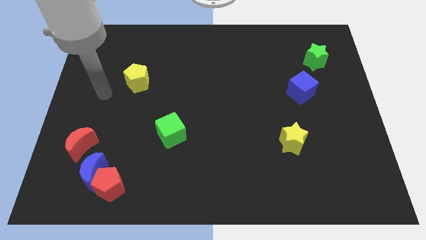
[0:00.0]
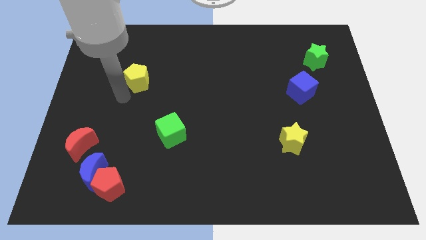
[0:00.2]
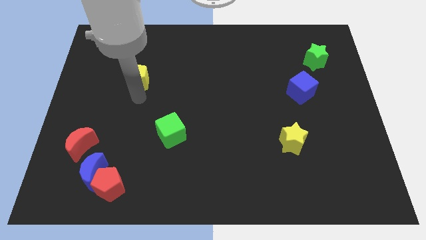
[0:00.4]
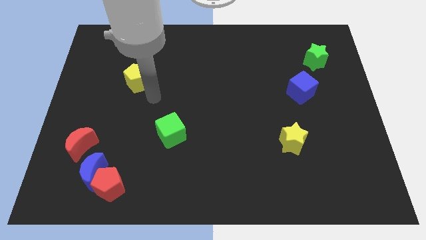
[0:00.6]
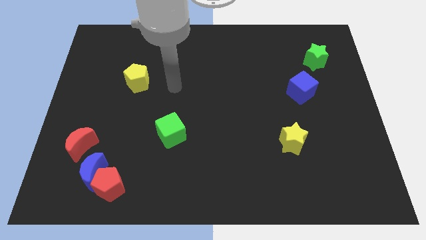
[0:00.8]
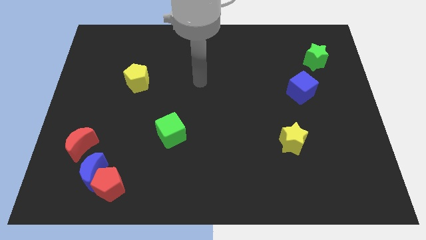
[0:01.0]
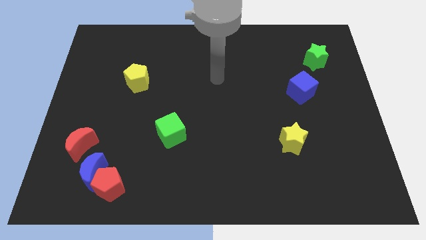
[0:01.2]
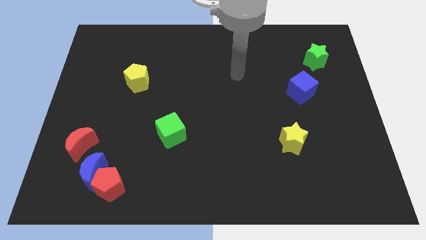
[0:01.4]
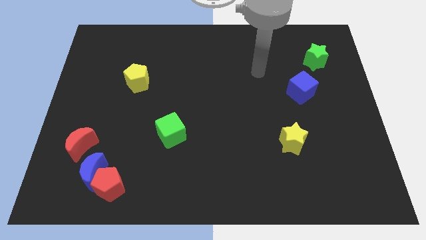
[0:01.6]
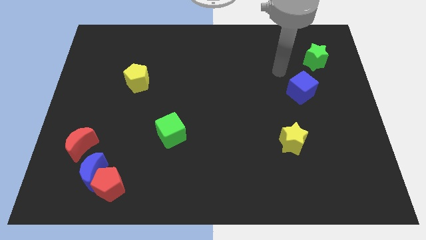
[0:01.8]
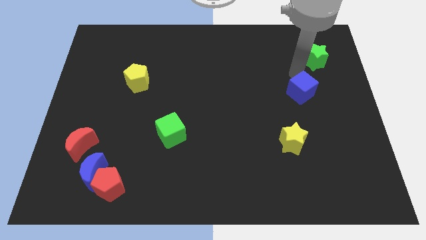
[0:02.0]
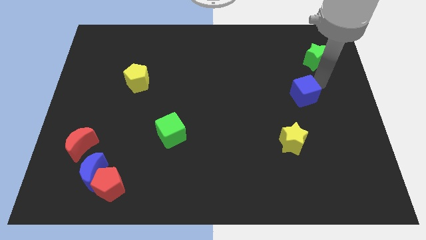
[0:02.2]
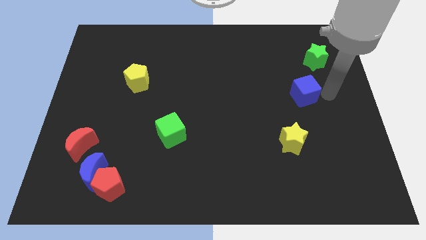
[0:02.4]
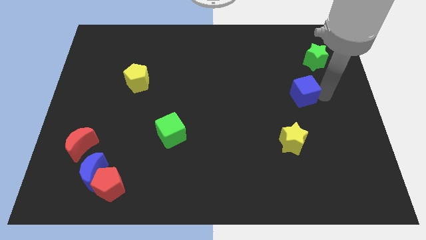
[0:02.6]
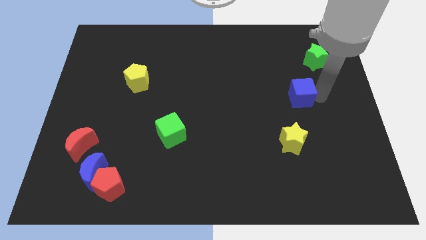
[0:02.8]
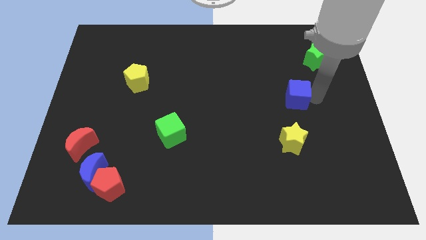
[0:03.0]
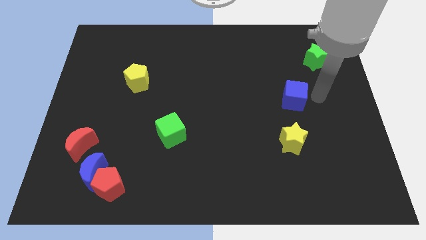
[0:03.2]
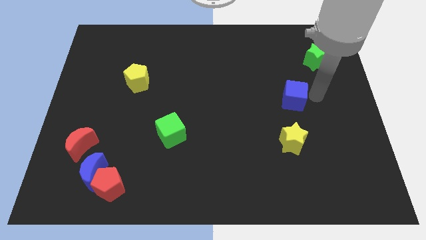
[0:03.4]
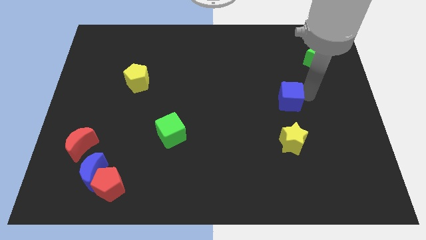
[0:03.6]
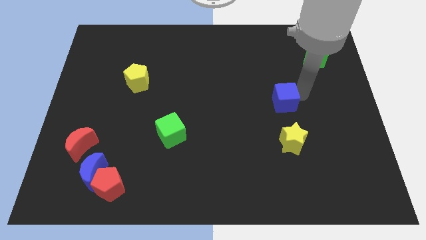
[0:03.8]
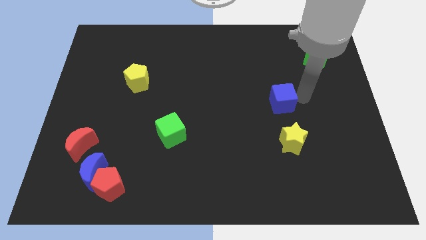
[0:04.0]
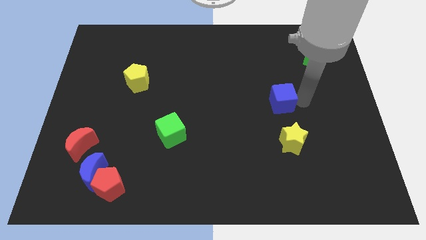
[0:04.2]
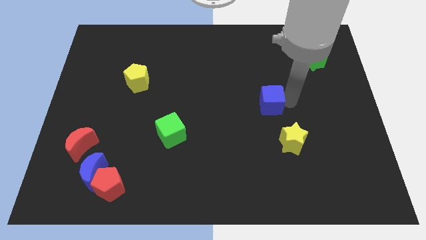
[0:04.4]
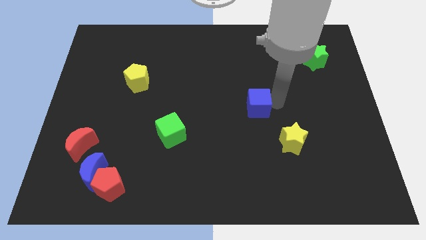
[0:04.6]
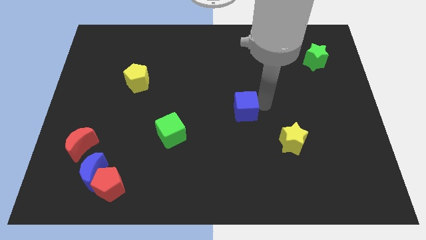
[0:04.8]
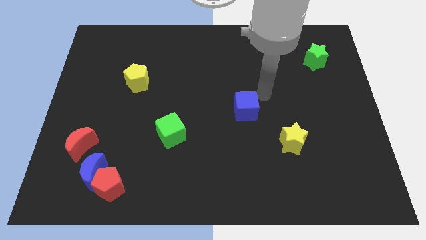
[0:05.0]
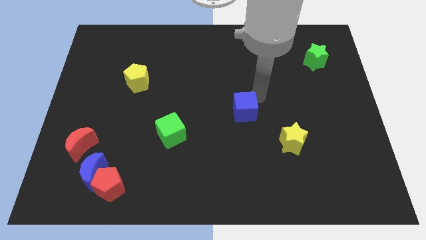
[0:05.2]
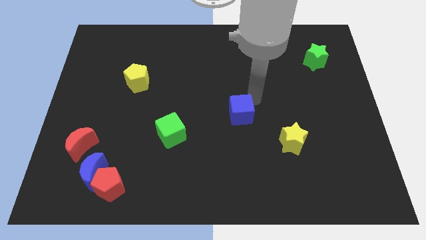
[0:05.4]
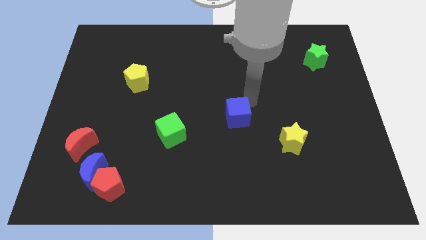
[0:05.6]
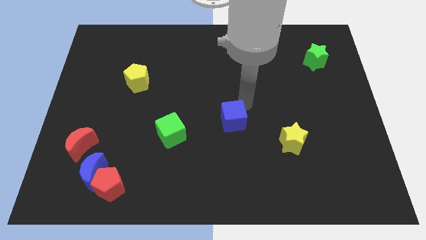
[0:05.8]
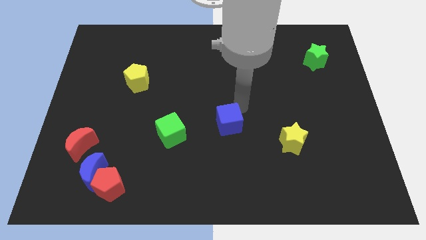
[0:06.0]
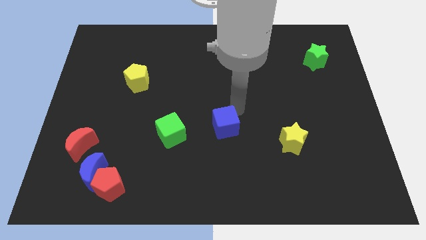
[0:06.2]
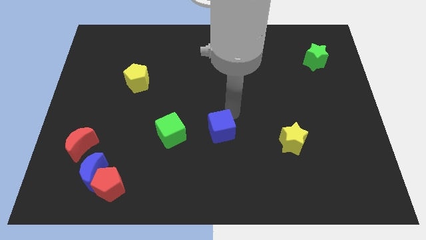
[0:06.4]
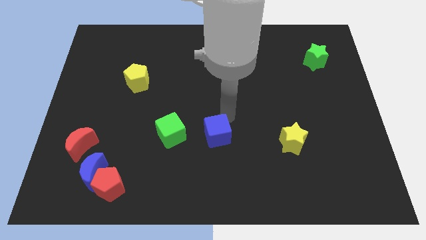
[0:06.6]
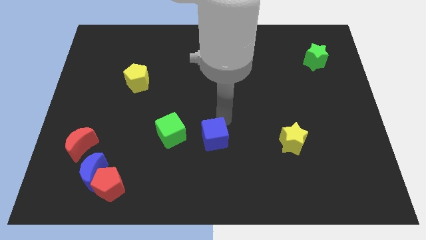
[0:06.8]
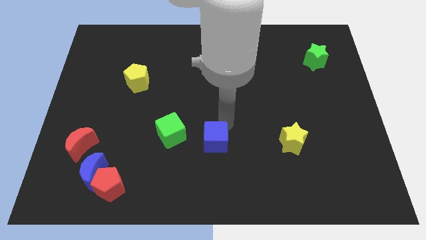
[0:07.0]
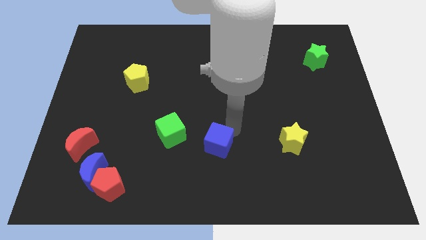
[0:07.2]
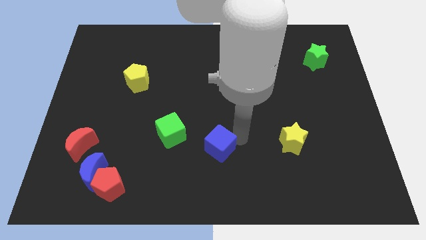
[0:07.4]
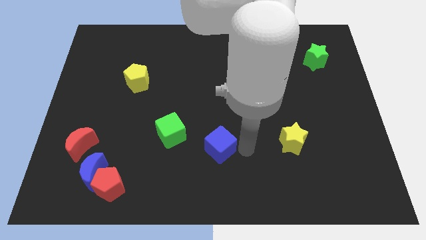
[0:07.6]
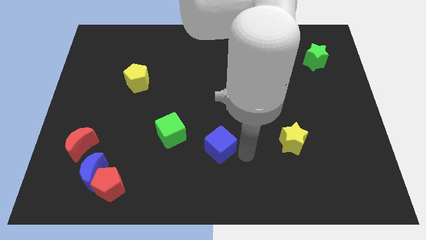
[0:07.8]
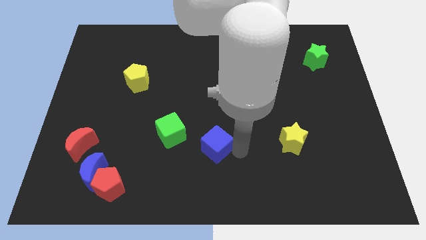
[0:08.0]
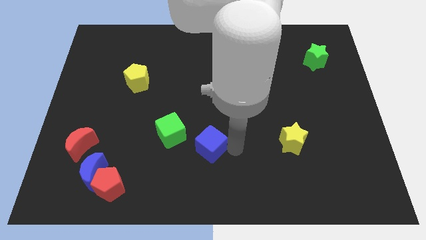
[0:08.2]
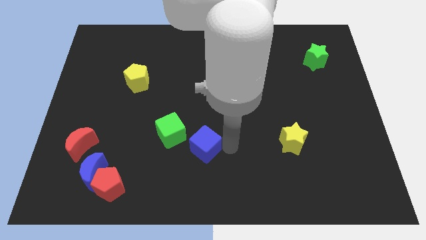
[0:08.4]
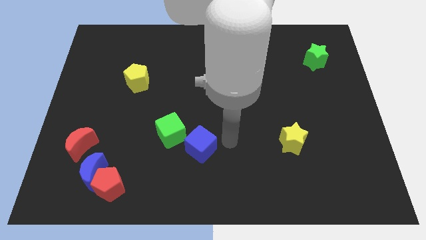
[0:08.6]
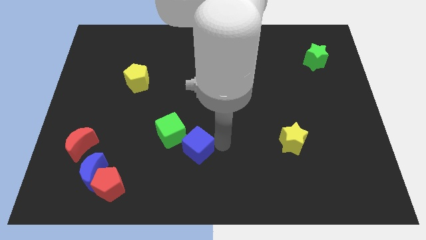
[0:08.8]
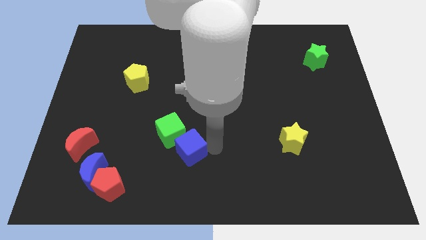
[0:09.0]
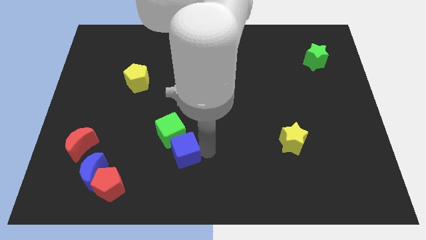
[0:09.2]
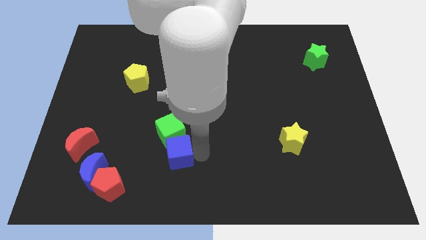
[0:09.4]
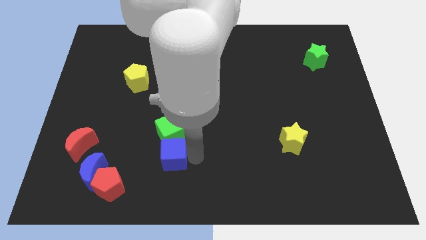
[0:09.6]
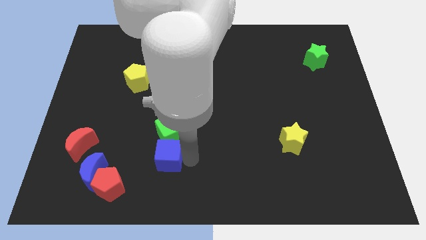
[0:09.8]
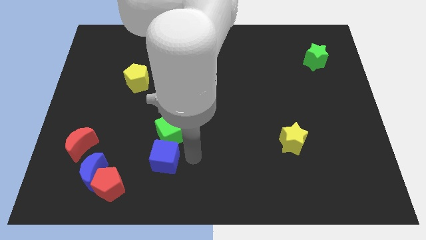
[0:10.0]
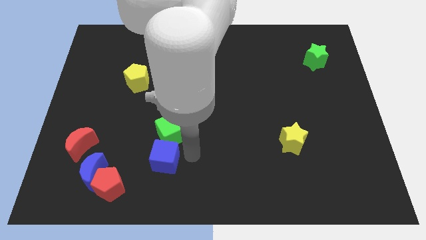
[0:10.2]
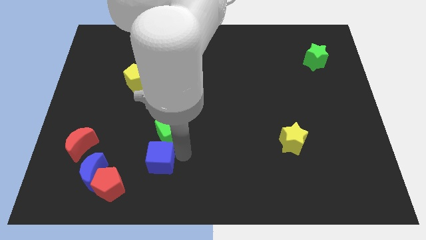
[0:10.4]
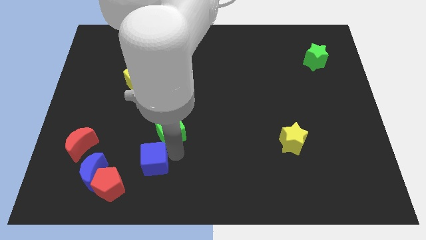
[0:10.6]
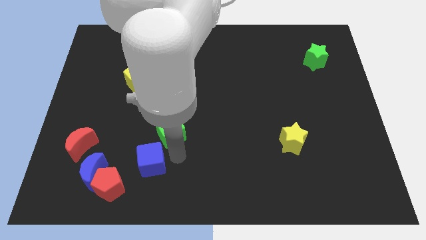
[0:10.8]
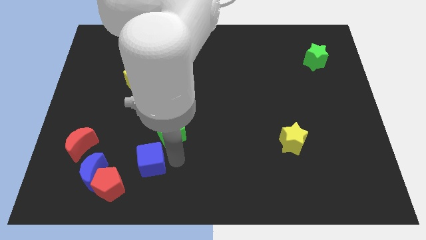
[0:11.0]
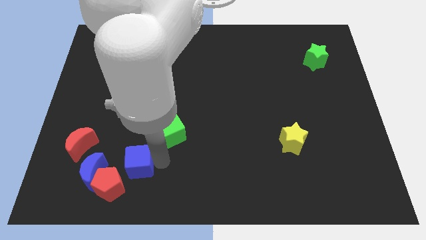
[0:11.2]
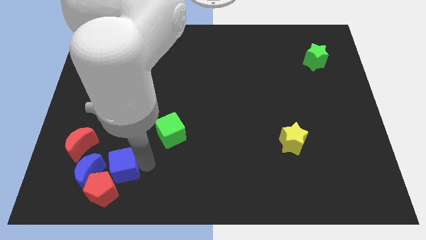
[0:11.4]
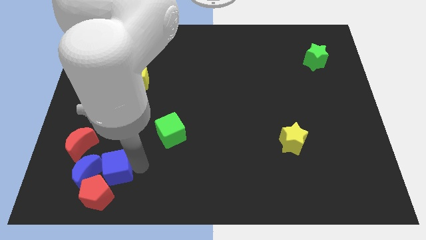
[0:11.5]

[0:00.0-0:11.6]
slide the blue cube close to the blue moon
